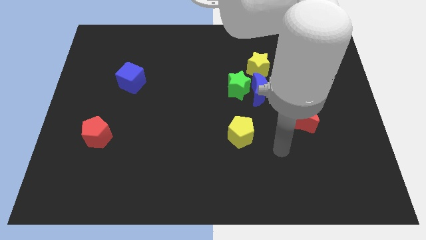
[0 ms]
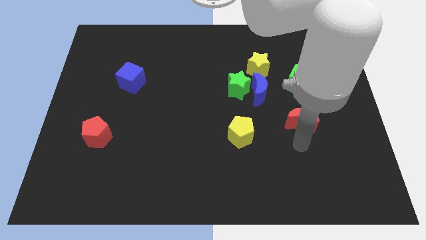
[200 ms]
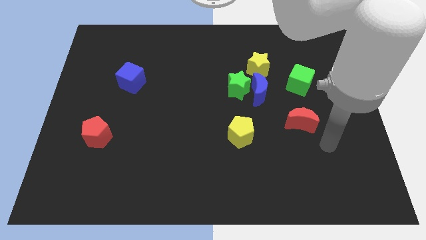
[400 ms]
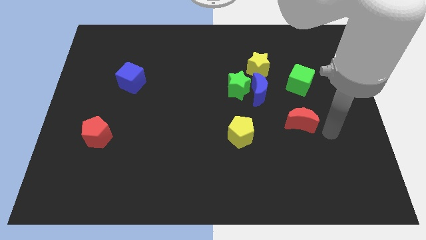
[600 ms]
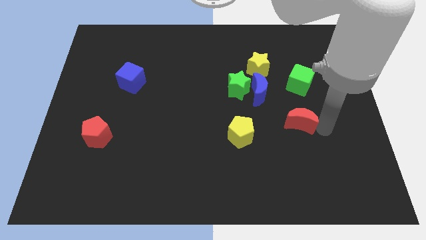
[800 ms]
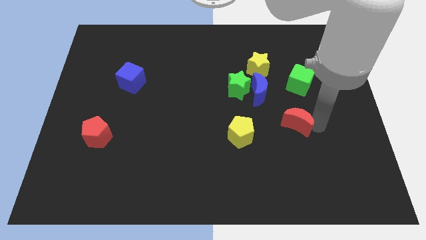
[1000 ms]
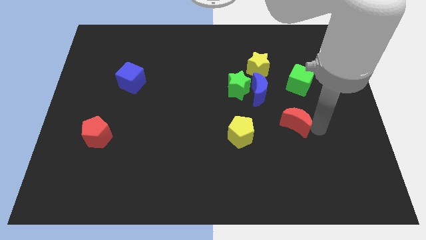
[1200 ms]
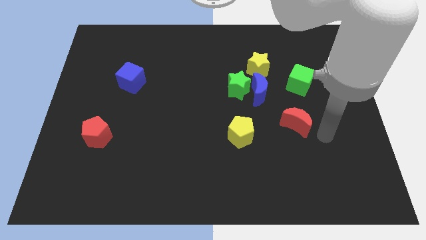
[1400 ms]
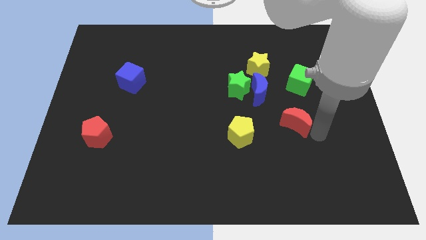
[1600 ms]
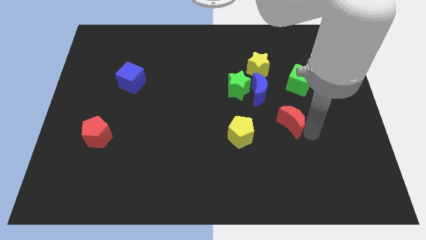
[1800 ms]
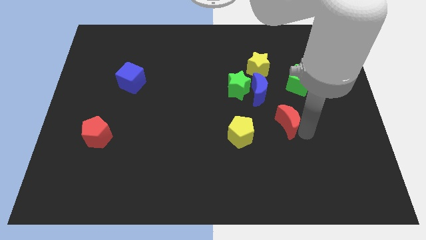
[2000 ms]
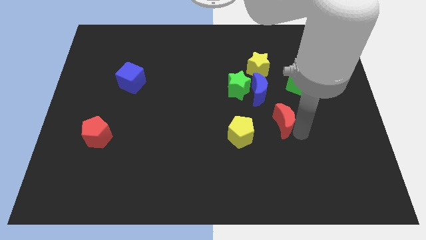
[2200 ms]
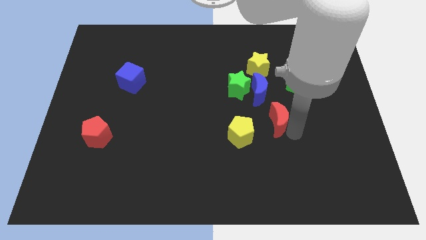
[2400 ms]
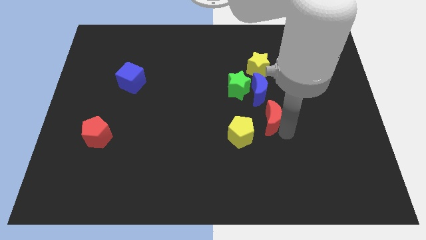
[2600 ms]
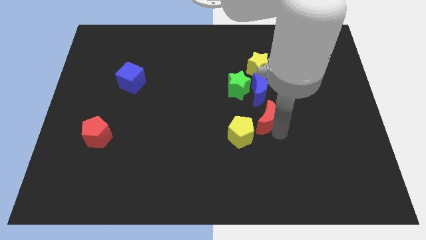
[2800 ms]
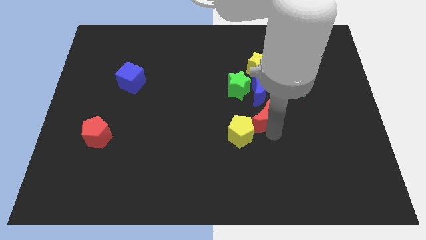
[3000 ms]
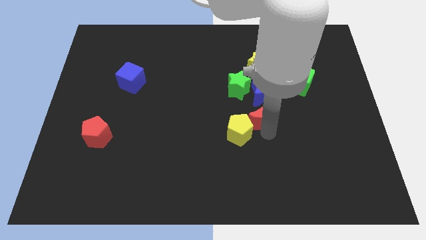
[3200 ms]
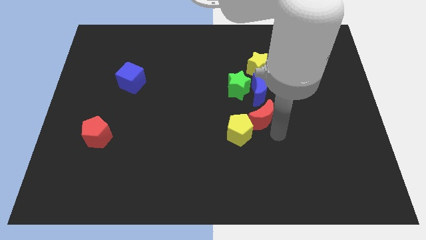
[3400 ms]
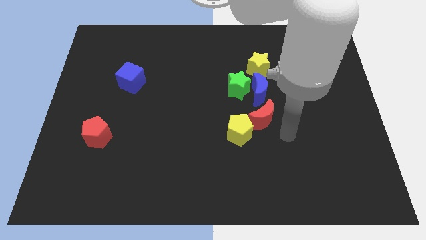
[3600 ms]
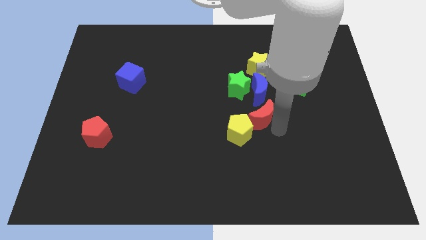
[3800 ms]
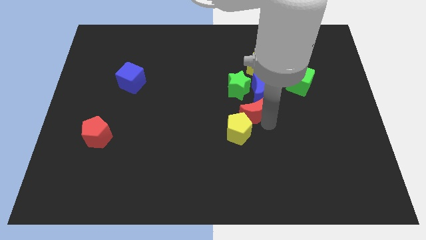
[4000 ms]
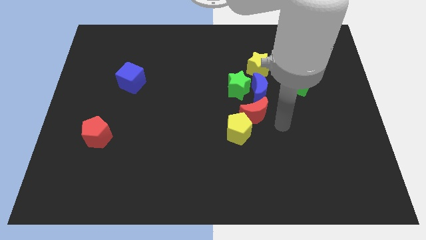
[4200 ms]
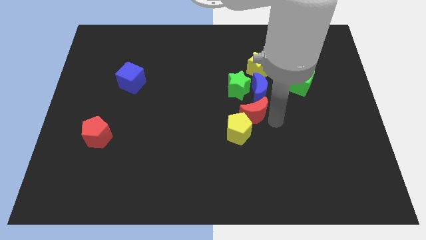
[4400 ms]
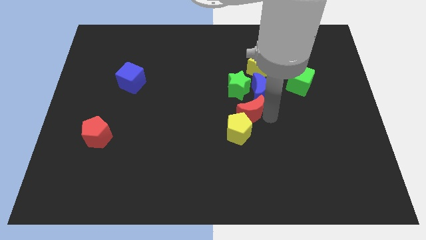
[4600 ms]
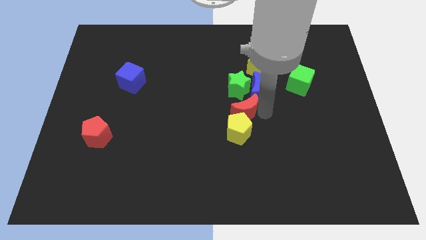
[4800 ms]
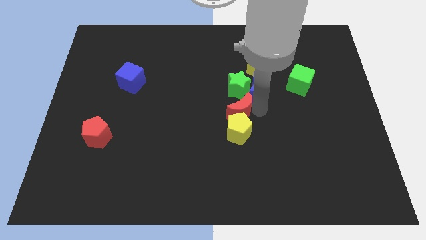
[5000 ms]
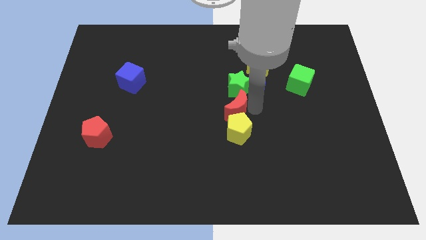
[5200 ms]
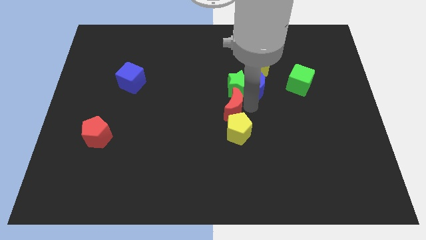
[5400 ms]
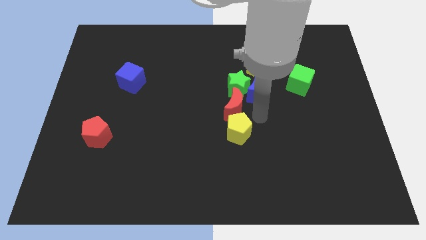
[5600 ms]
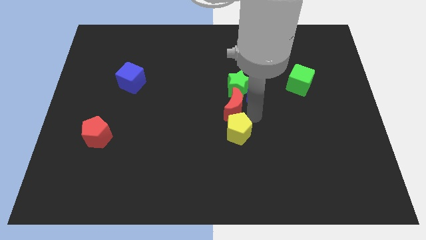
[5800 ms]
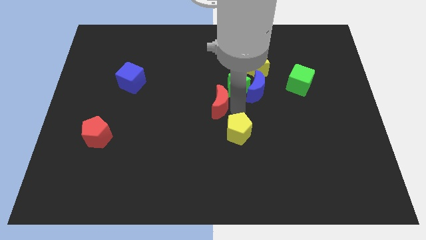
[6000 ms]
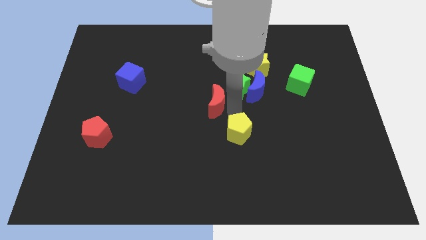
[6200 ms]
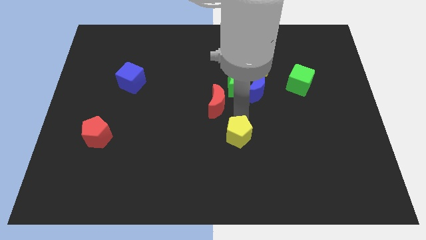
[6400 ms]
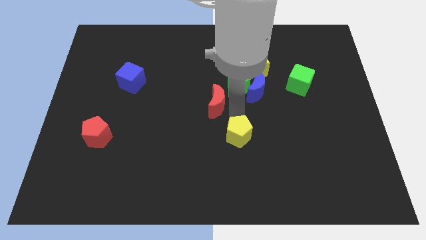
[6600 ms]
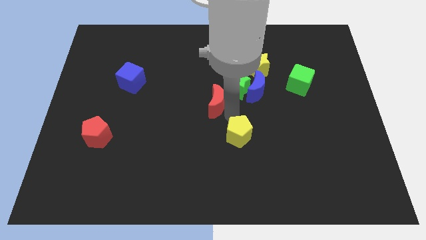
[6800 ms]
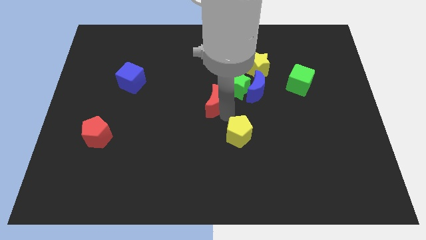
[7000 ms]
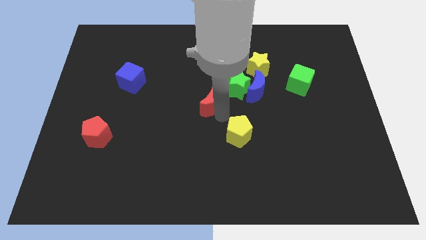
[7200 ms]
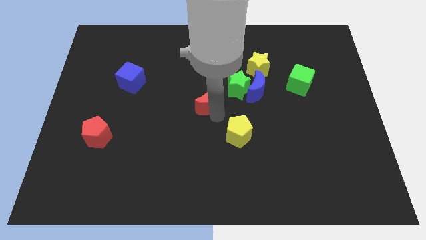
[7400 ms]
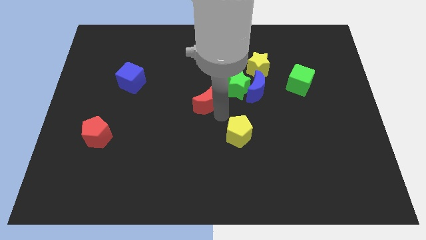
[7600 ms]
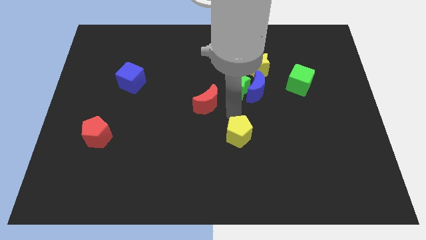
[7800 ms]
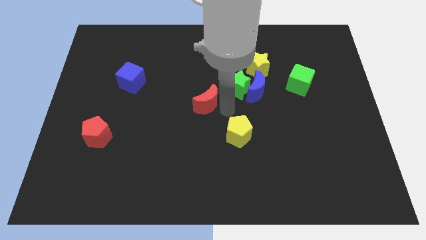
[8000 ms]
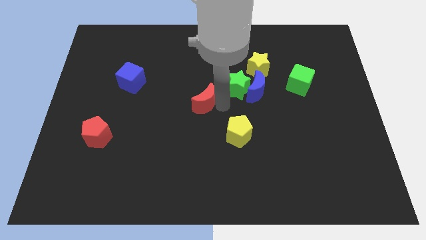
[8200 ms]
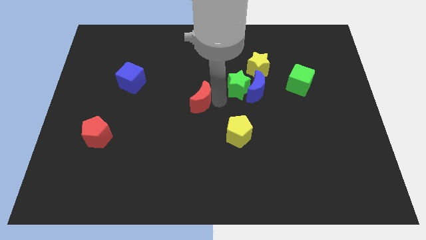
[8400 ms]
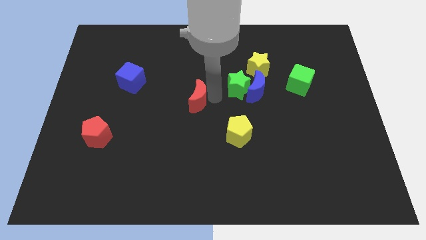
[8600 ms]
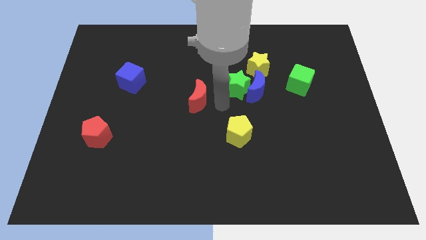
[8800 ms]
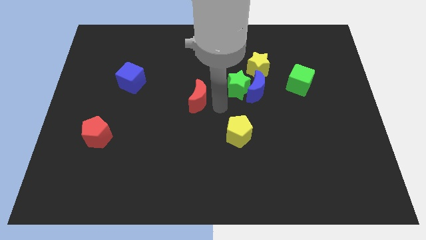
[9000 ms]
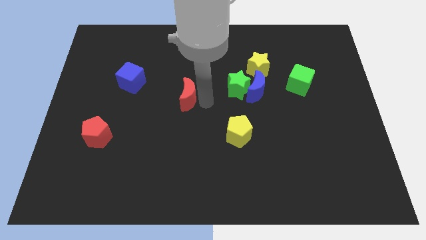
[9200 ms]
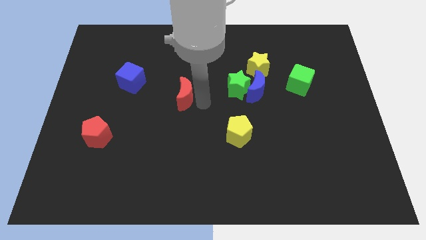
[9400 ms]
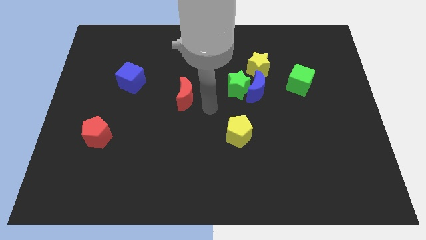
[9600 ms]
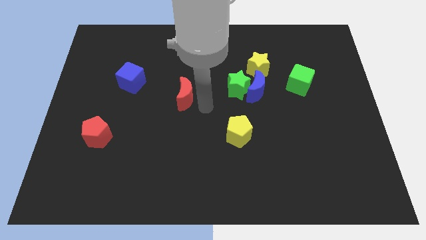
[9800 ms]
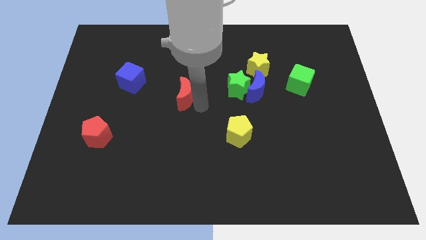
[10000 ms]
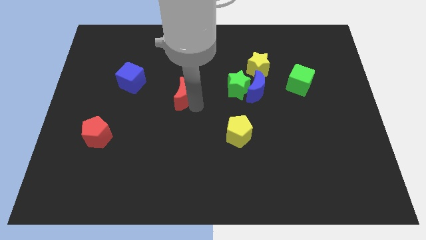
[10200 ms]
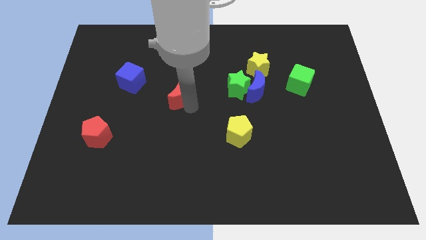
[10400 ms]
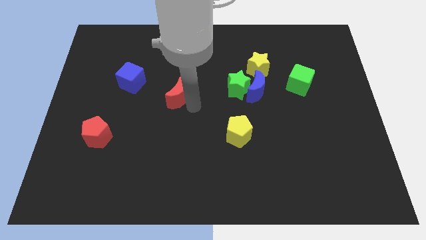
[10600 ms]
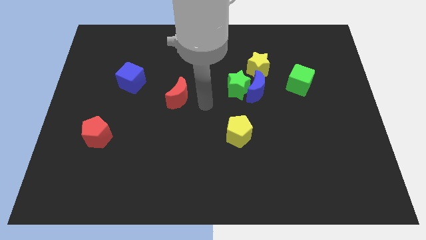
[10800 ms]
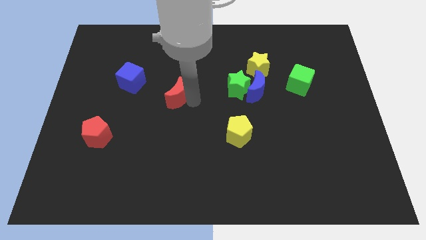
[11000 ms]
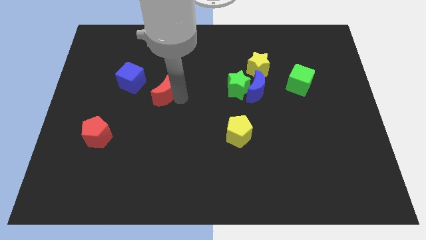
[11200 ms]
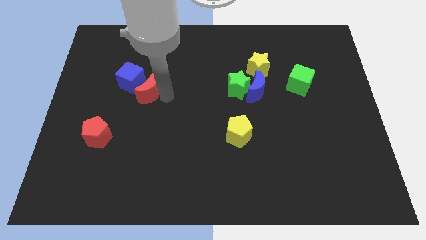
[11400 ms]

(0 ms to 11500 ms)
put the red moon to the blue cube

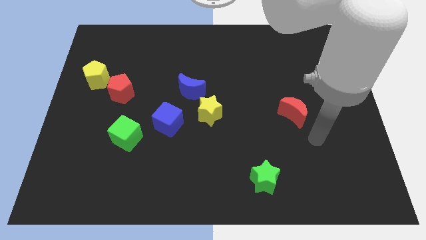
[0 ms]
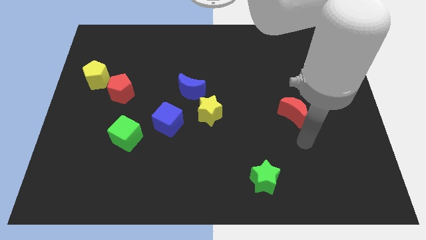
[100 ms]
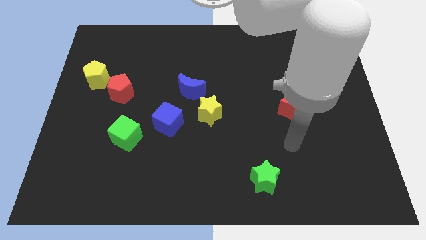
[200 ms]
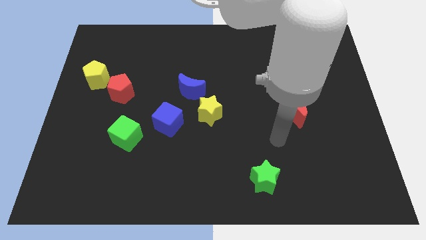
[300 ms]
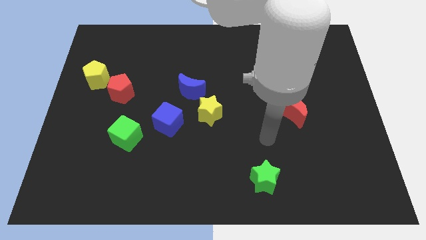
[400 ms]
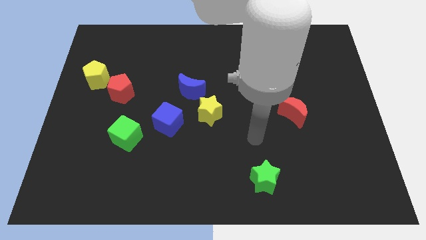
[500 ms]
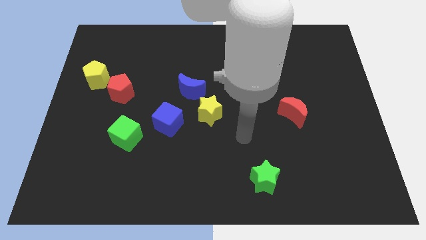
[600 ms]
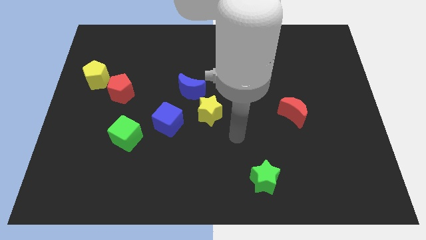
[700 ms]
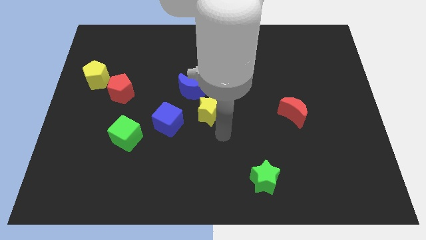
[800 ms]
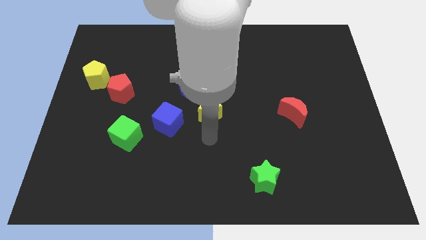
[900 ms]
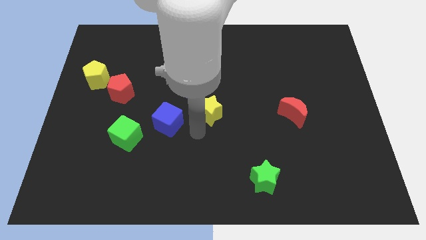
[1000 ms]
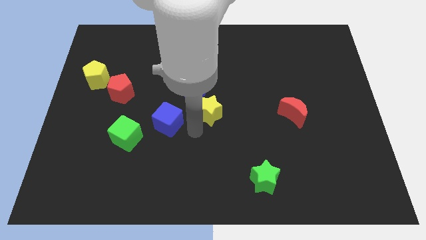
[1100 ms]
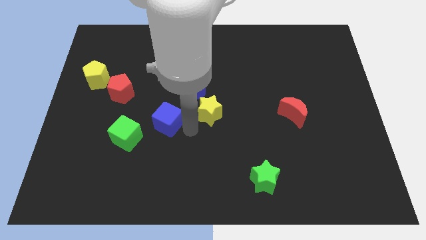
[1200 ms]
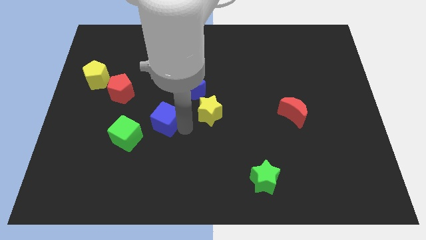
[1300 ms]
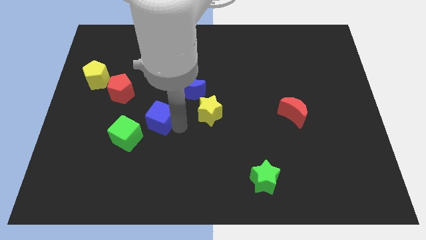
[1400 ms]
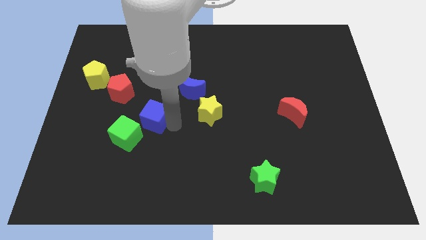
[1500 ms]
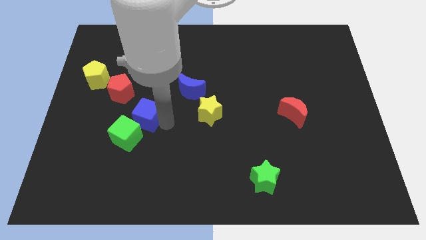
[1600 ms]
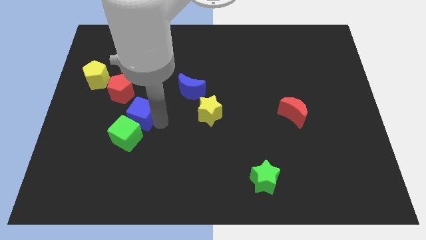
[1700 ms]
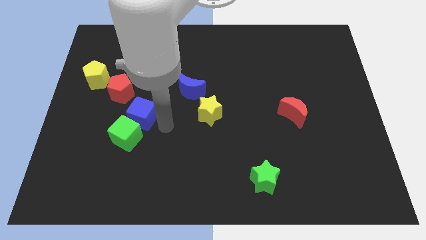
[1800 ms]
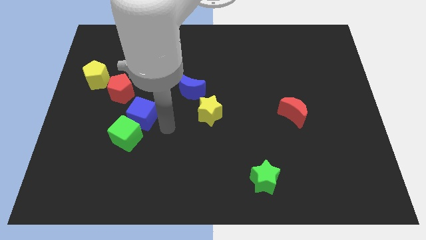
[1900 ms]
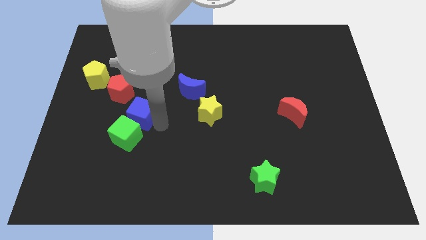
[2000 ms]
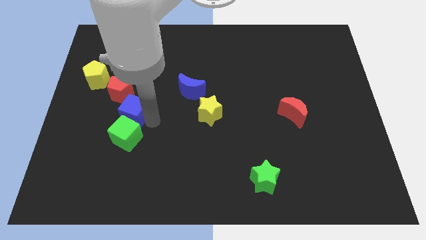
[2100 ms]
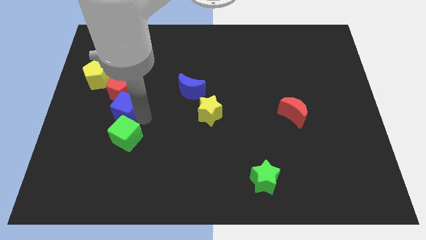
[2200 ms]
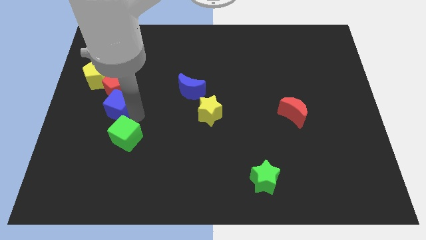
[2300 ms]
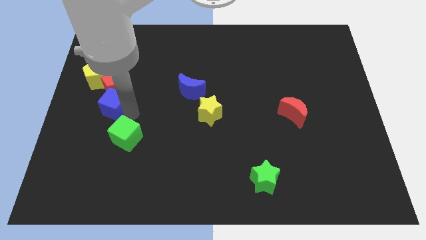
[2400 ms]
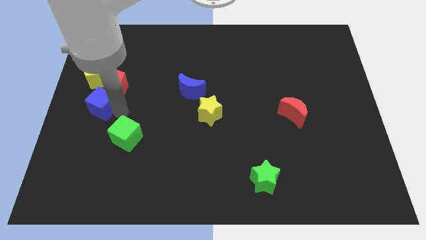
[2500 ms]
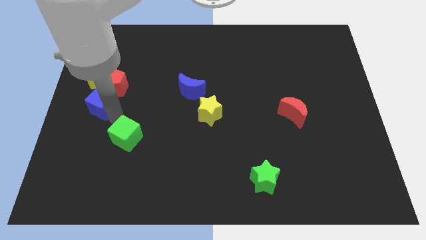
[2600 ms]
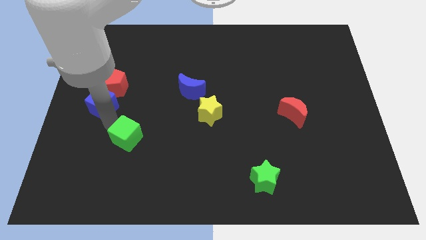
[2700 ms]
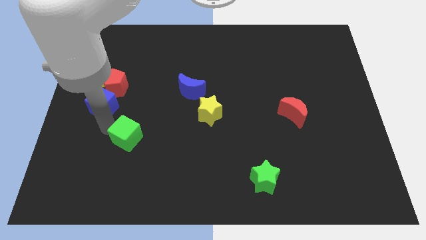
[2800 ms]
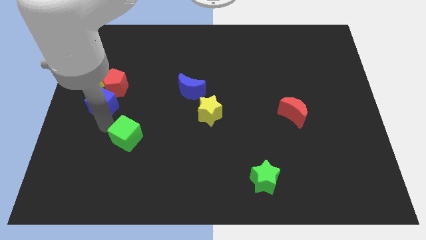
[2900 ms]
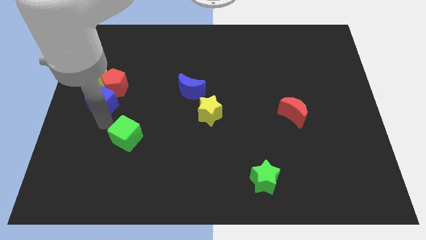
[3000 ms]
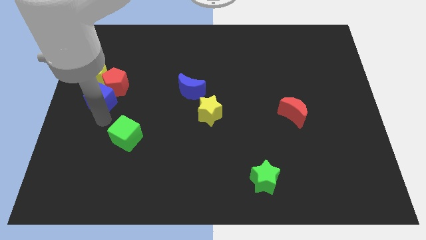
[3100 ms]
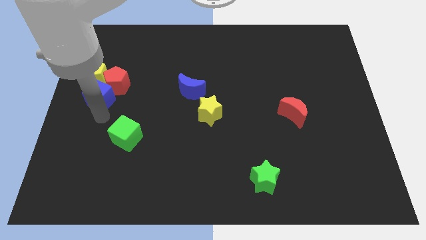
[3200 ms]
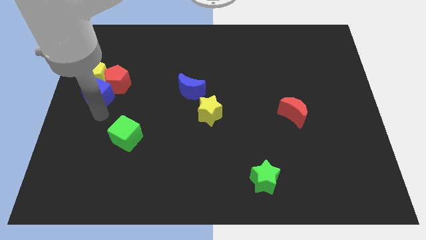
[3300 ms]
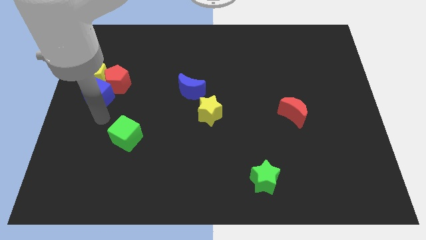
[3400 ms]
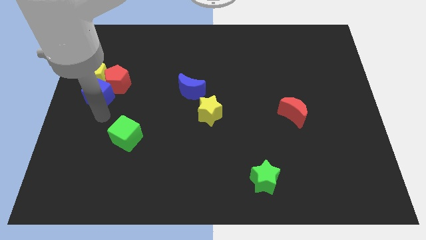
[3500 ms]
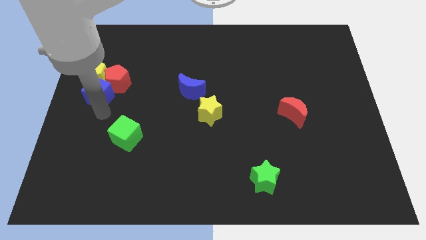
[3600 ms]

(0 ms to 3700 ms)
move the blue cube next to the yellow pentagon
